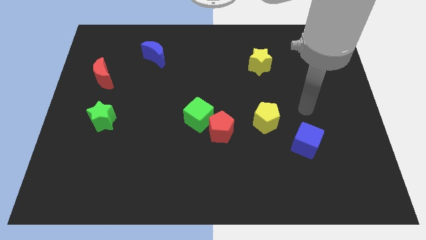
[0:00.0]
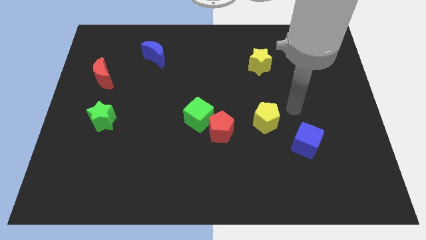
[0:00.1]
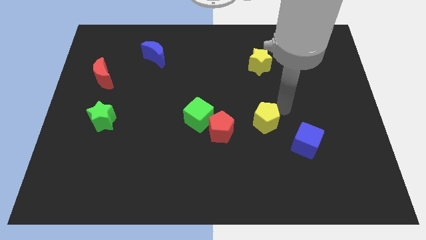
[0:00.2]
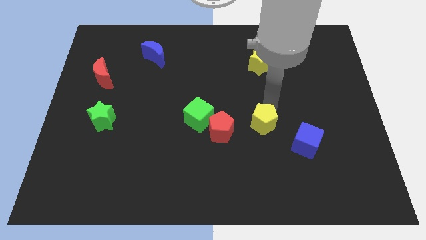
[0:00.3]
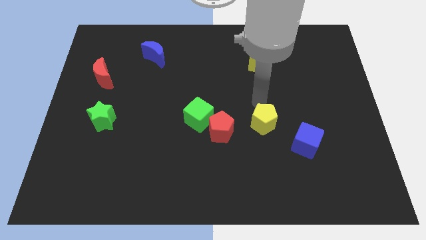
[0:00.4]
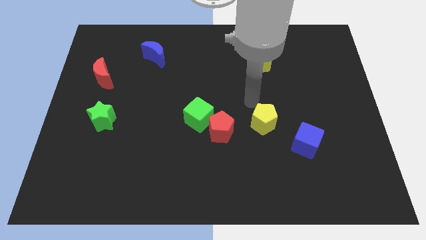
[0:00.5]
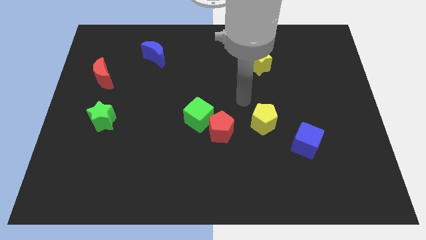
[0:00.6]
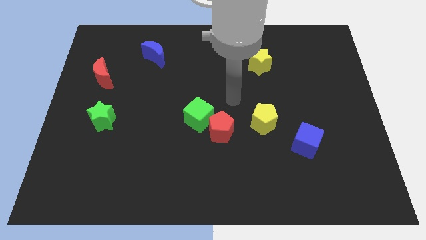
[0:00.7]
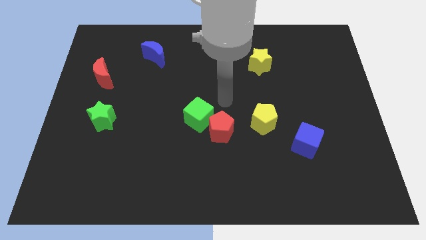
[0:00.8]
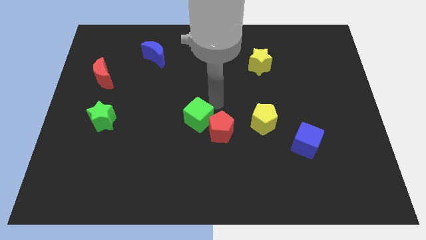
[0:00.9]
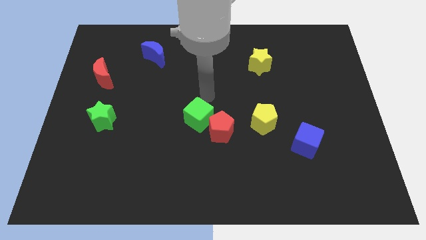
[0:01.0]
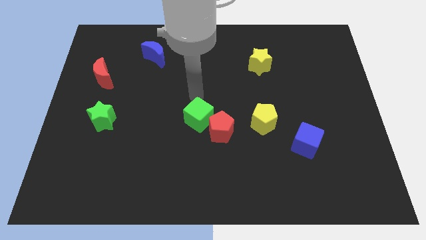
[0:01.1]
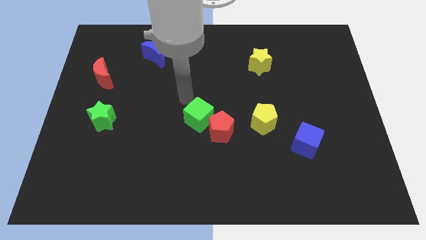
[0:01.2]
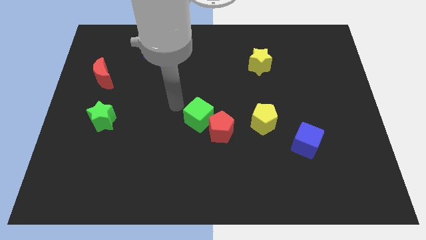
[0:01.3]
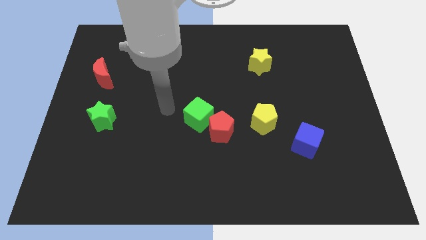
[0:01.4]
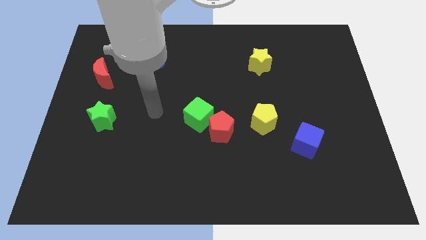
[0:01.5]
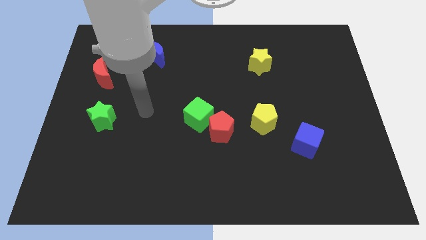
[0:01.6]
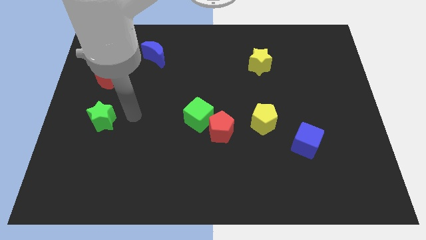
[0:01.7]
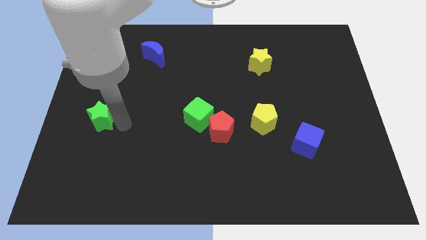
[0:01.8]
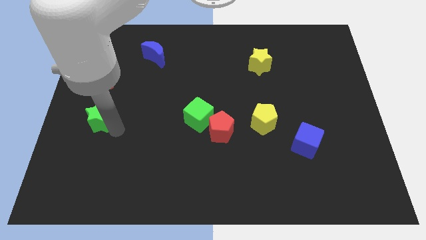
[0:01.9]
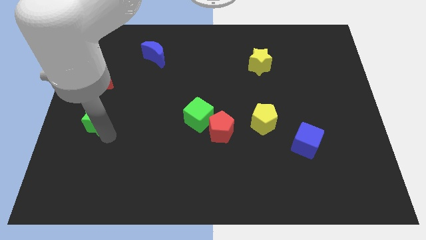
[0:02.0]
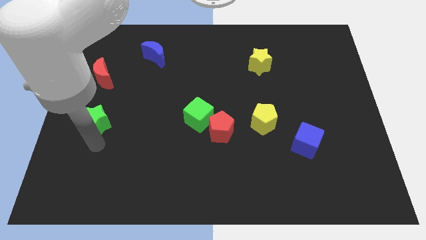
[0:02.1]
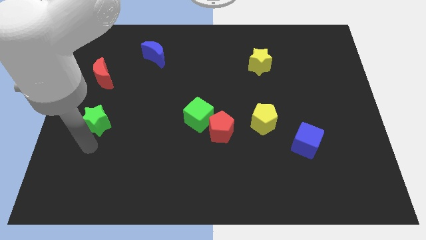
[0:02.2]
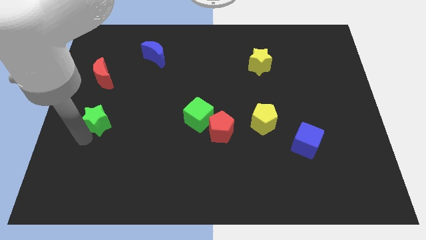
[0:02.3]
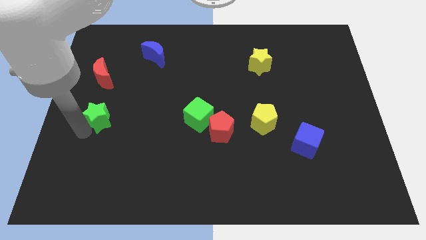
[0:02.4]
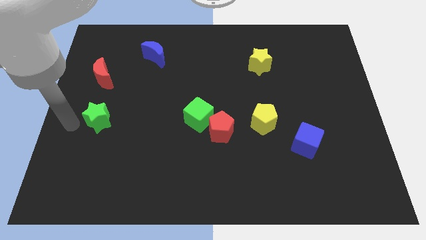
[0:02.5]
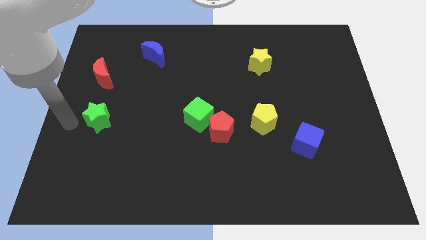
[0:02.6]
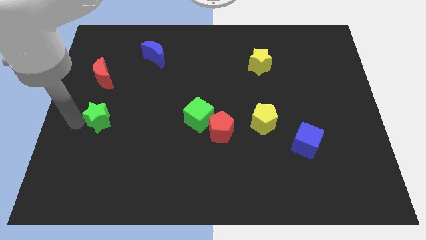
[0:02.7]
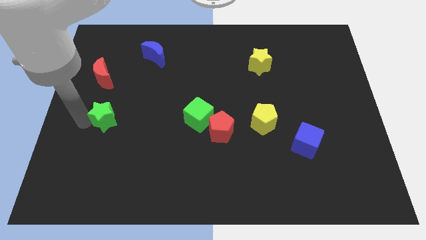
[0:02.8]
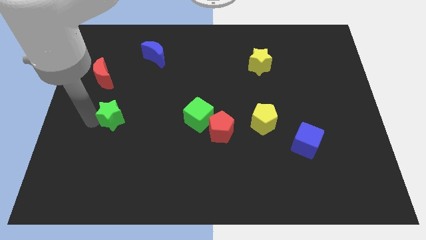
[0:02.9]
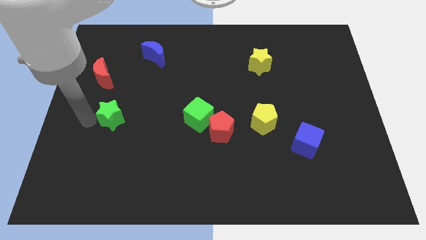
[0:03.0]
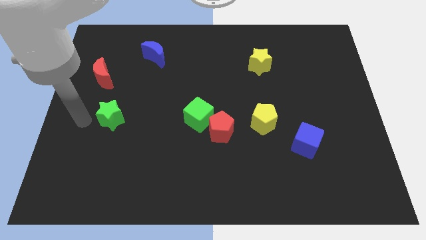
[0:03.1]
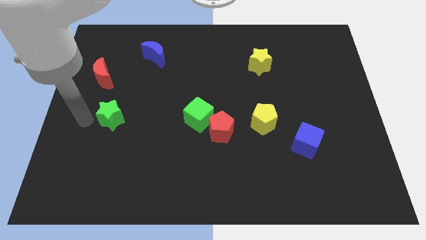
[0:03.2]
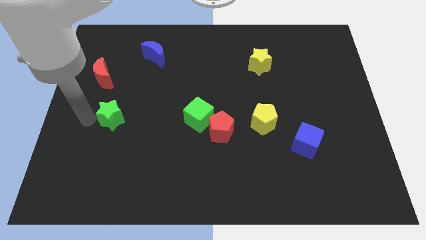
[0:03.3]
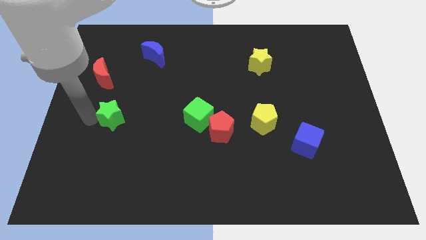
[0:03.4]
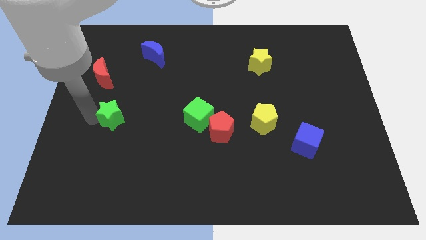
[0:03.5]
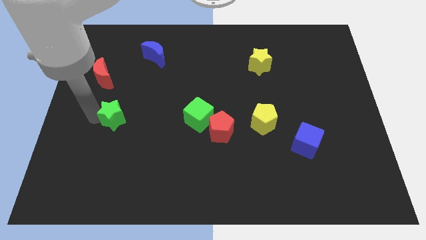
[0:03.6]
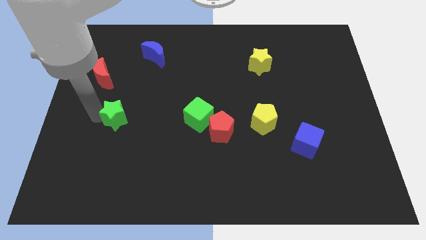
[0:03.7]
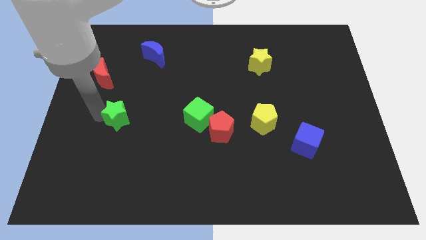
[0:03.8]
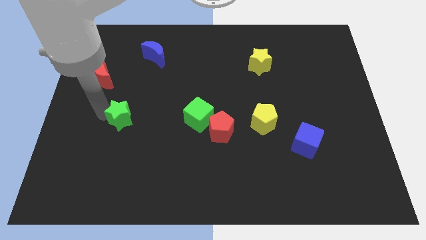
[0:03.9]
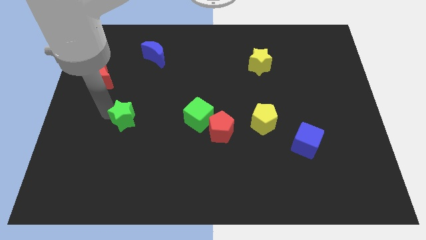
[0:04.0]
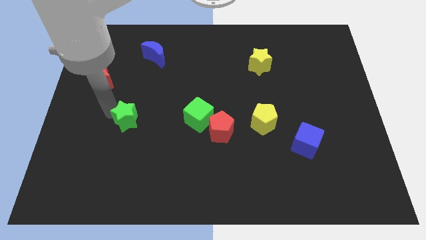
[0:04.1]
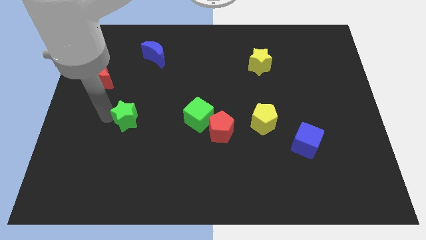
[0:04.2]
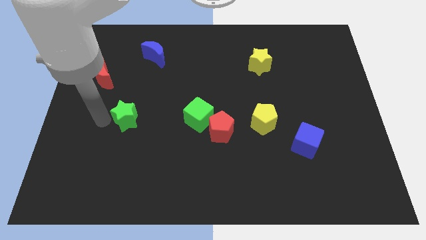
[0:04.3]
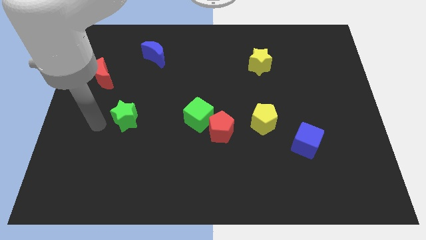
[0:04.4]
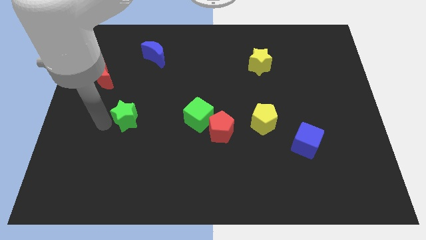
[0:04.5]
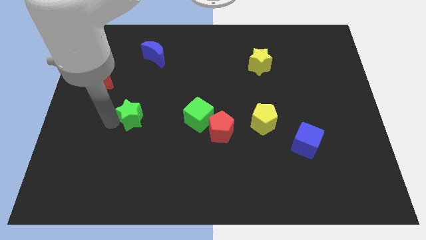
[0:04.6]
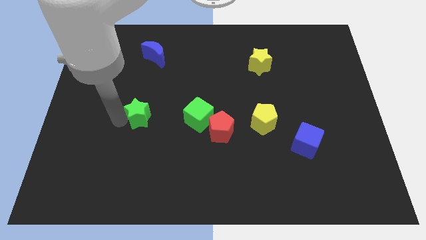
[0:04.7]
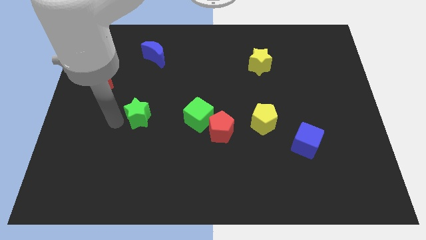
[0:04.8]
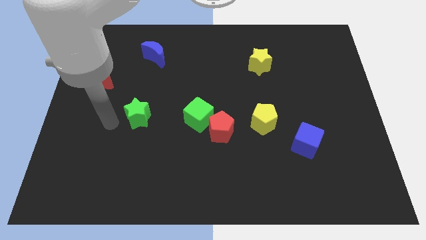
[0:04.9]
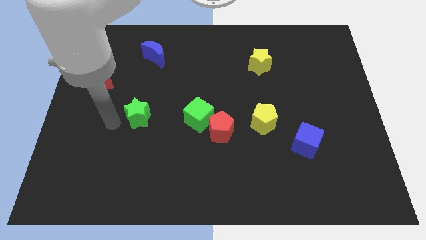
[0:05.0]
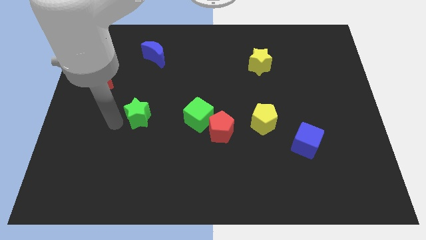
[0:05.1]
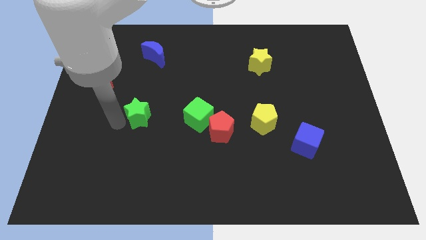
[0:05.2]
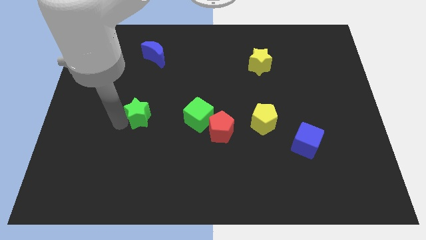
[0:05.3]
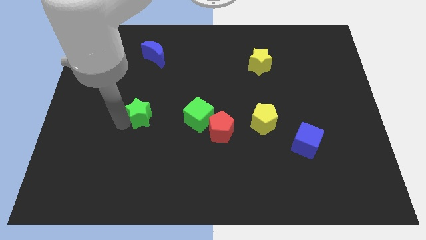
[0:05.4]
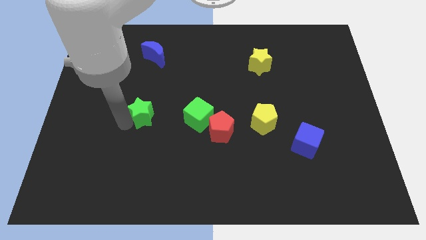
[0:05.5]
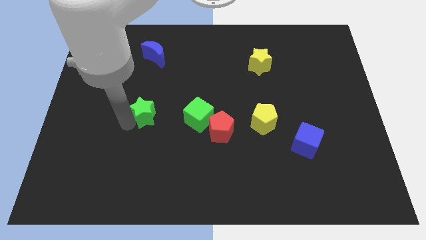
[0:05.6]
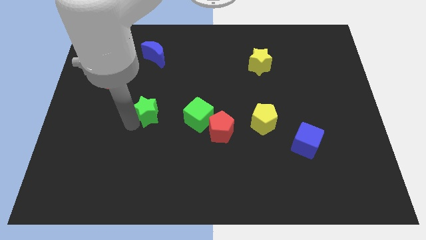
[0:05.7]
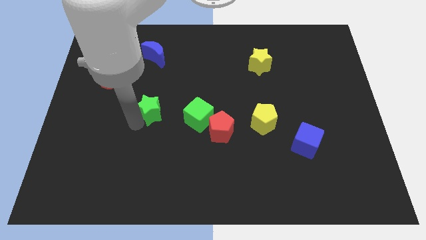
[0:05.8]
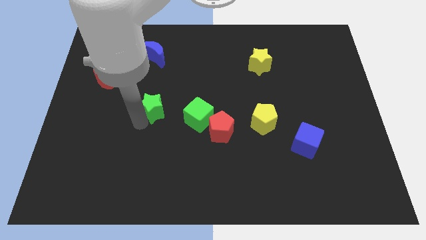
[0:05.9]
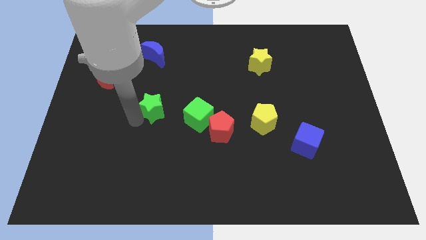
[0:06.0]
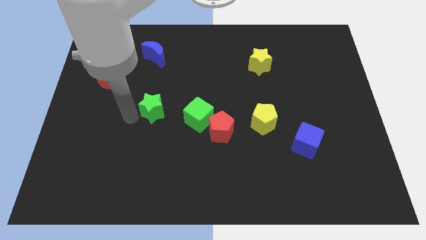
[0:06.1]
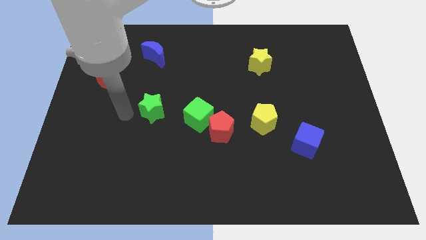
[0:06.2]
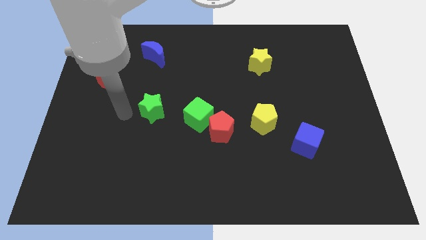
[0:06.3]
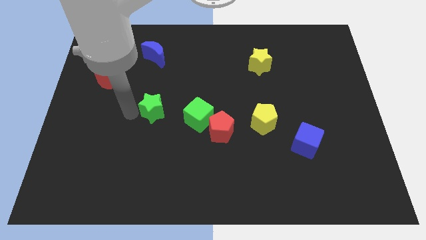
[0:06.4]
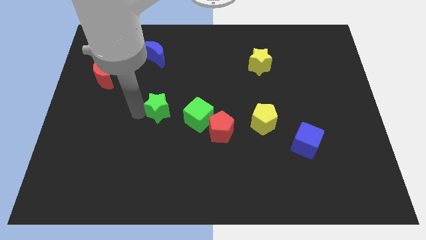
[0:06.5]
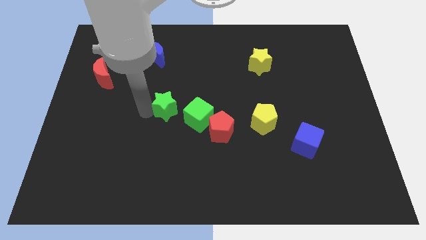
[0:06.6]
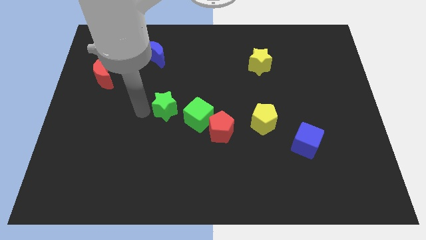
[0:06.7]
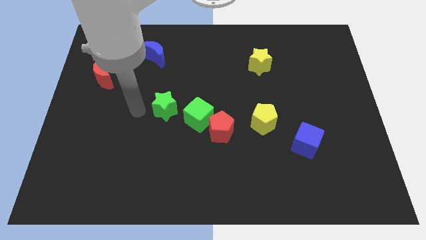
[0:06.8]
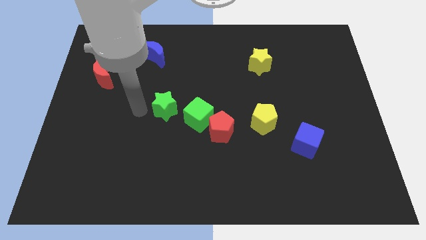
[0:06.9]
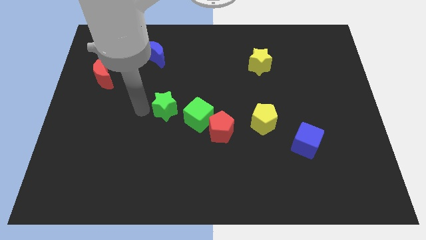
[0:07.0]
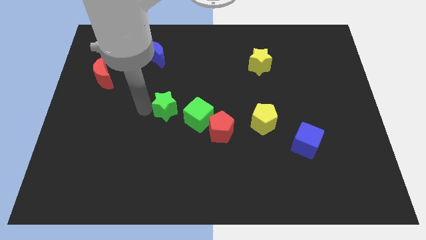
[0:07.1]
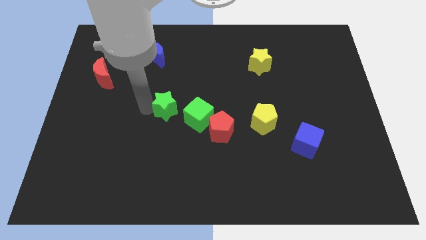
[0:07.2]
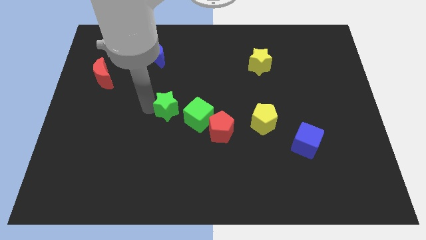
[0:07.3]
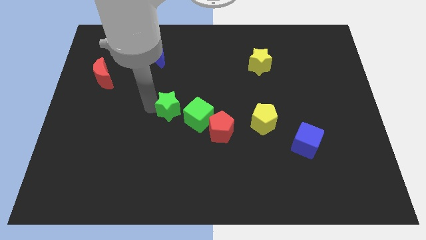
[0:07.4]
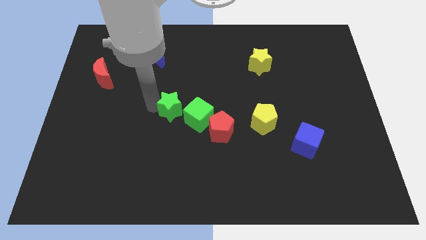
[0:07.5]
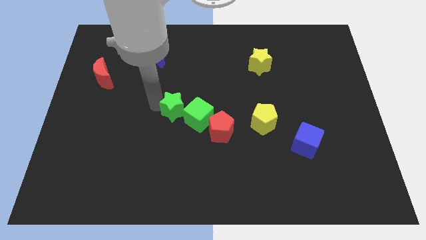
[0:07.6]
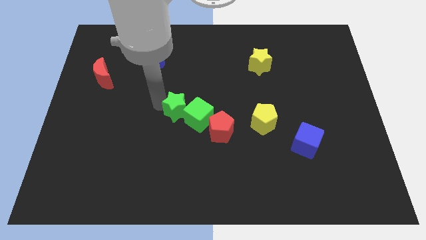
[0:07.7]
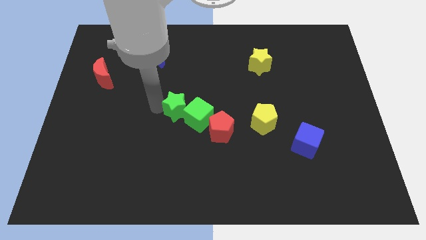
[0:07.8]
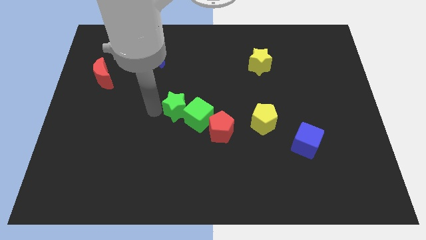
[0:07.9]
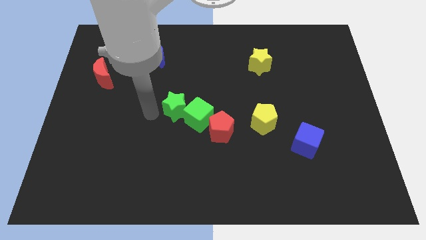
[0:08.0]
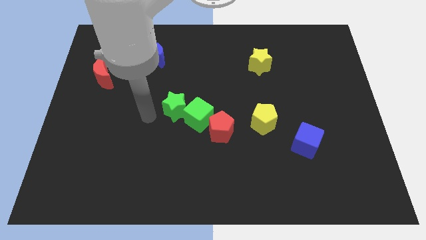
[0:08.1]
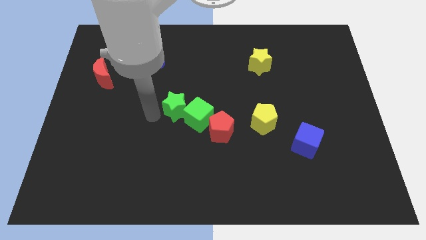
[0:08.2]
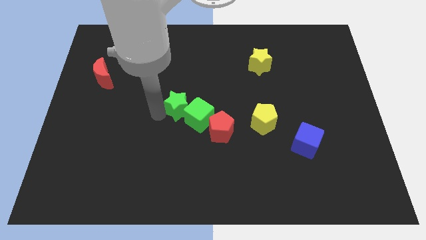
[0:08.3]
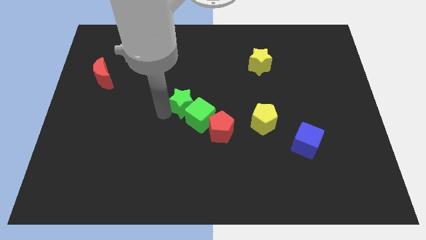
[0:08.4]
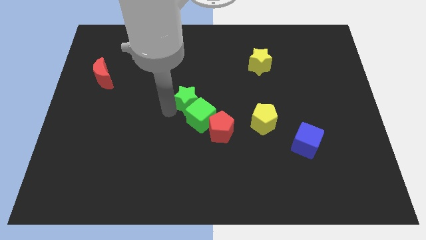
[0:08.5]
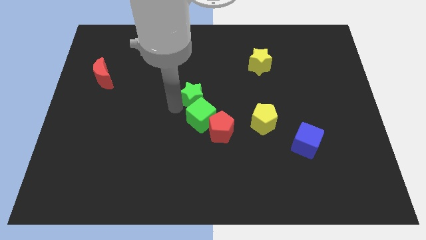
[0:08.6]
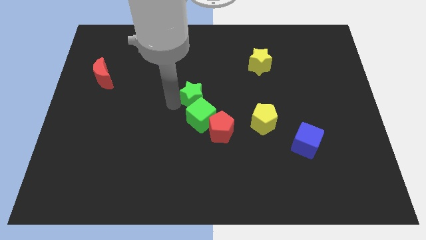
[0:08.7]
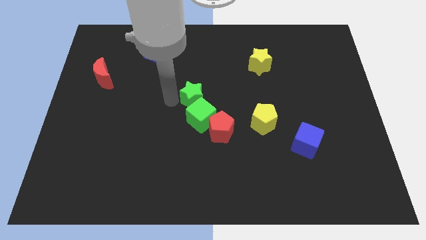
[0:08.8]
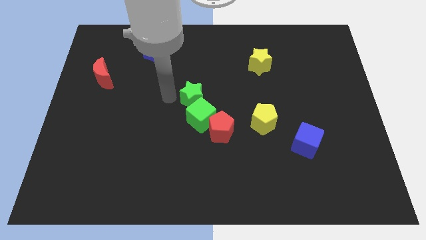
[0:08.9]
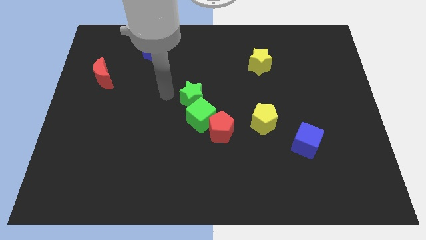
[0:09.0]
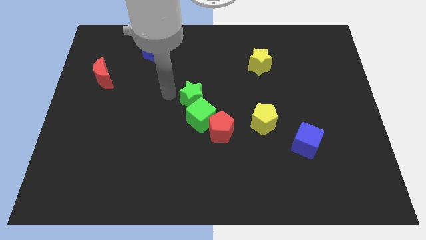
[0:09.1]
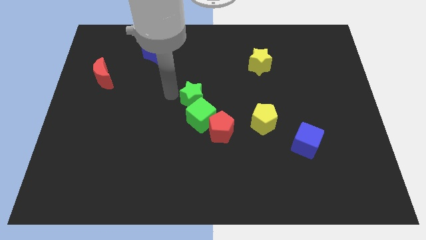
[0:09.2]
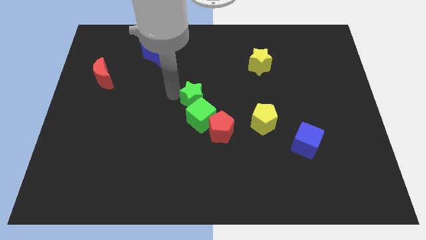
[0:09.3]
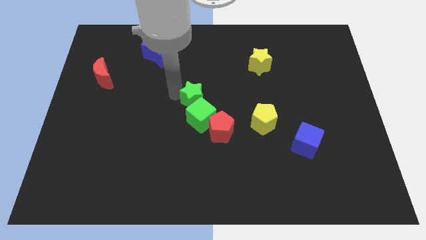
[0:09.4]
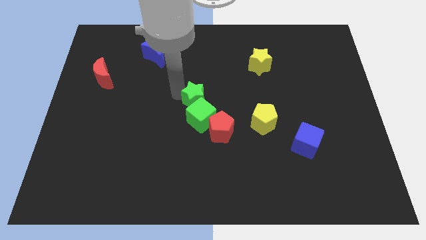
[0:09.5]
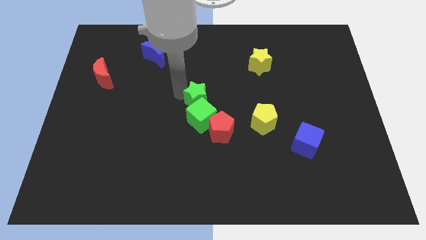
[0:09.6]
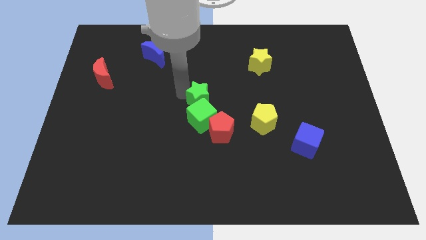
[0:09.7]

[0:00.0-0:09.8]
push the green star to the right
